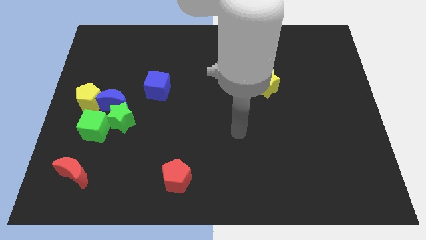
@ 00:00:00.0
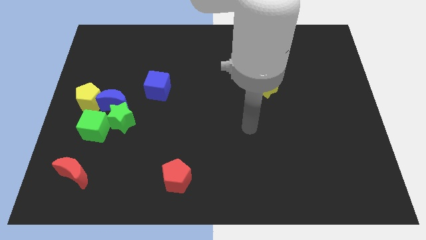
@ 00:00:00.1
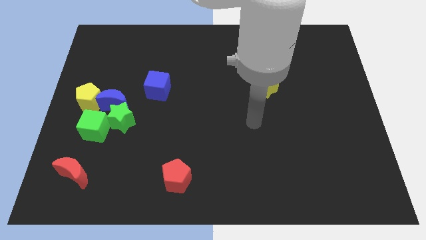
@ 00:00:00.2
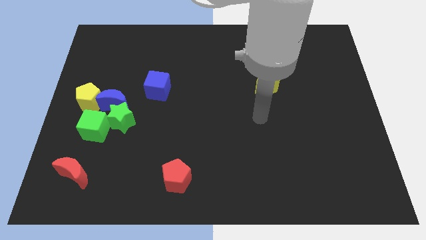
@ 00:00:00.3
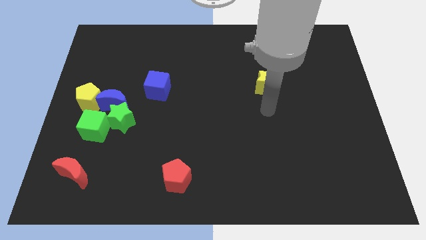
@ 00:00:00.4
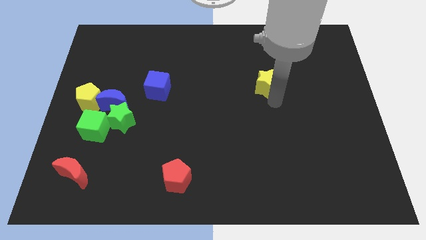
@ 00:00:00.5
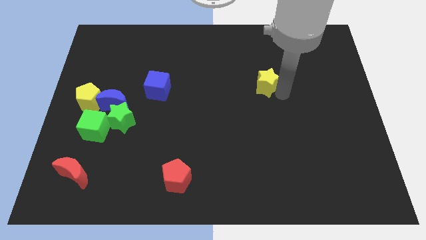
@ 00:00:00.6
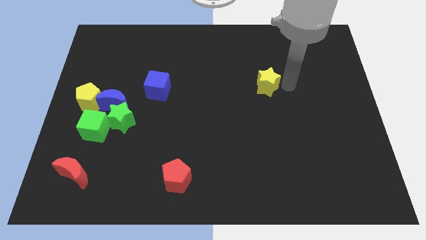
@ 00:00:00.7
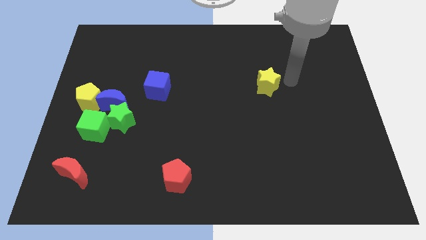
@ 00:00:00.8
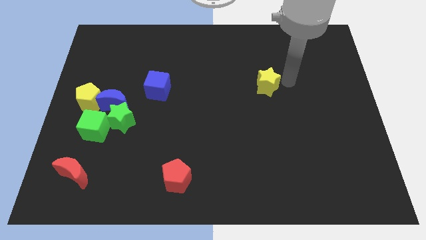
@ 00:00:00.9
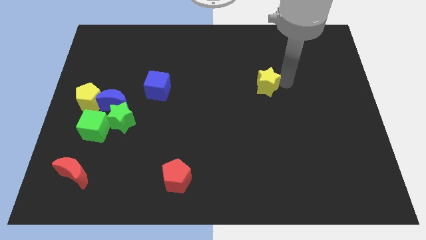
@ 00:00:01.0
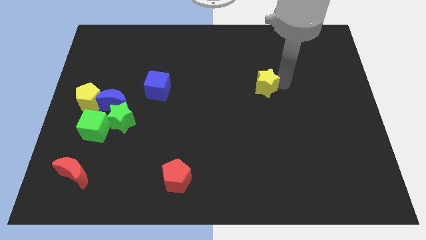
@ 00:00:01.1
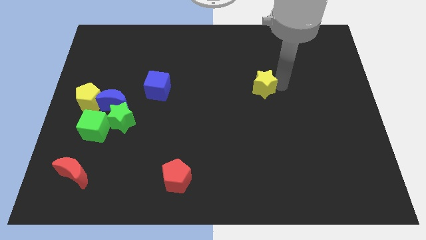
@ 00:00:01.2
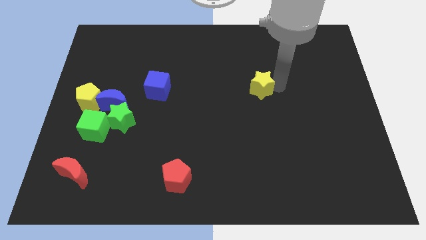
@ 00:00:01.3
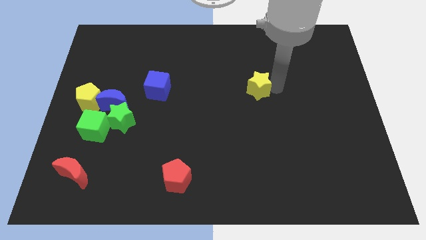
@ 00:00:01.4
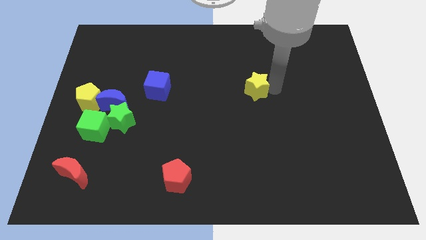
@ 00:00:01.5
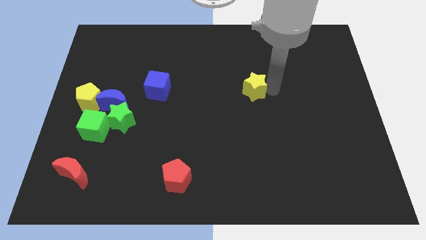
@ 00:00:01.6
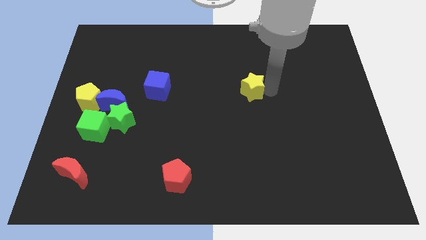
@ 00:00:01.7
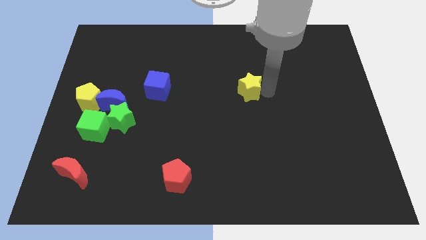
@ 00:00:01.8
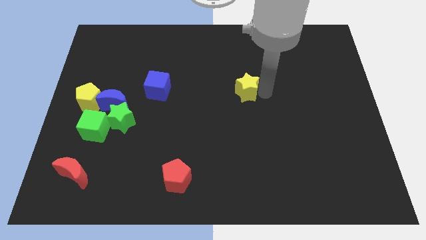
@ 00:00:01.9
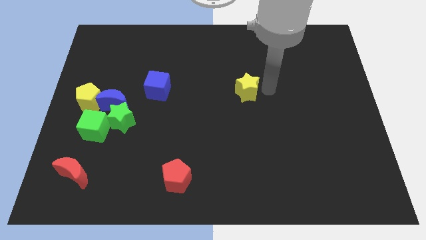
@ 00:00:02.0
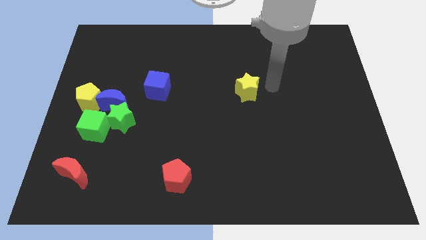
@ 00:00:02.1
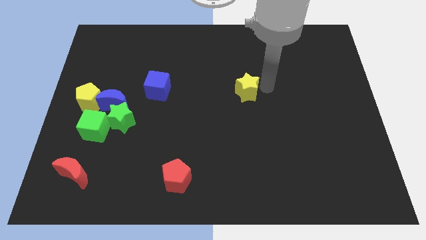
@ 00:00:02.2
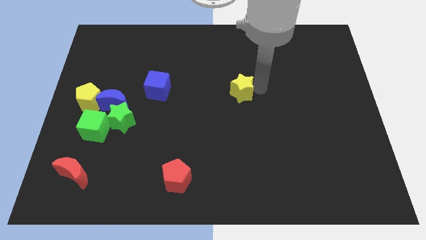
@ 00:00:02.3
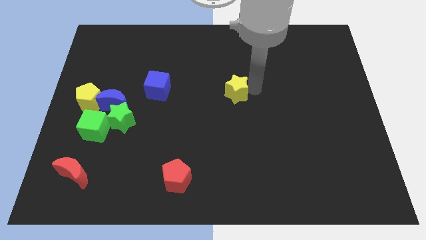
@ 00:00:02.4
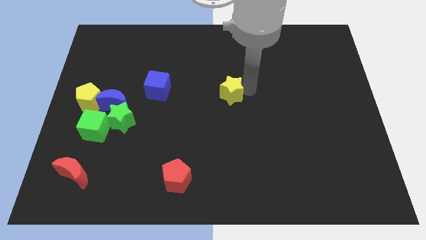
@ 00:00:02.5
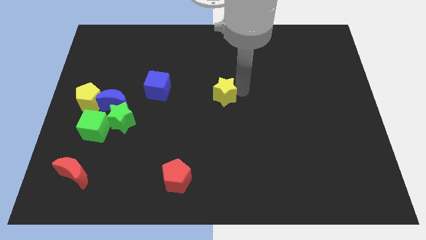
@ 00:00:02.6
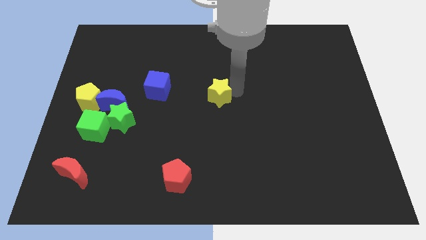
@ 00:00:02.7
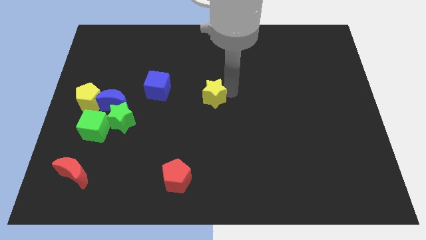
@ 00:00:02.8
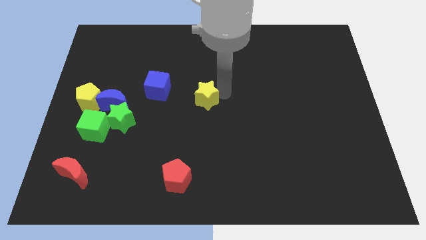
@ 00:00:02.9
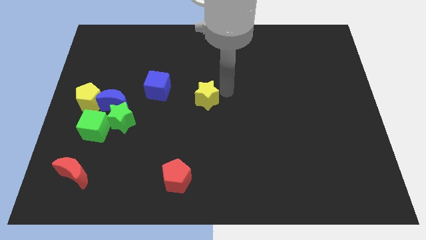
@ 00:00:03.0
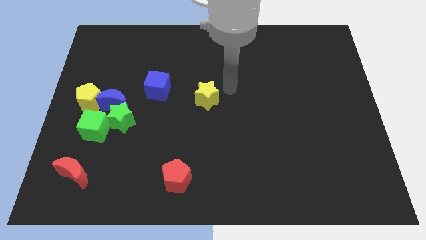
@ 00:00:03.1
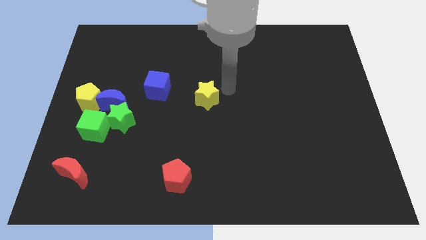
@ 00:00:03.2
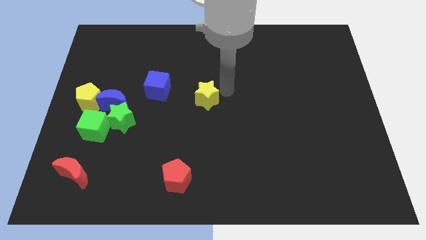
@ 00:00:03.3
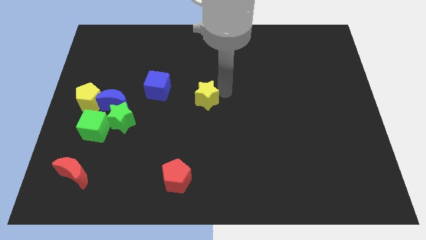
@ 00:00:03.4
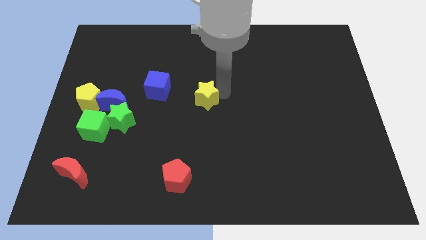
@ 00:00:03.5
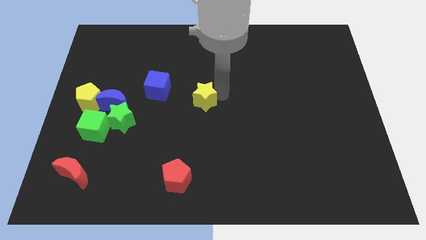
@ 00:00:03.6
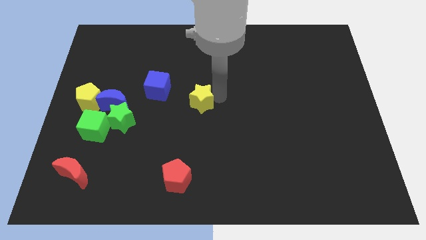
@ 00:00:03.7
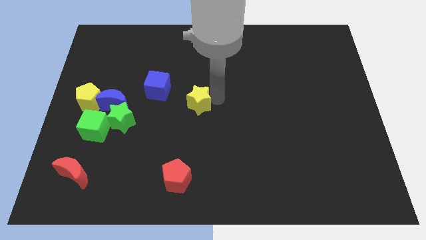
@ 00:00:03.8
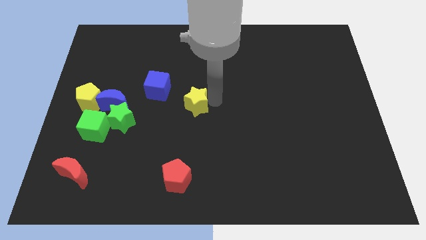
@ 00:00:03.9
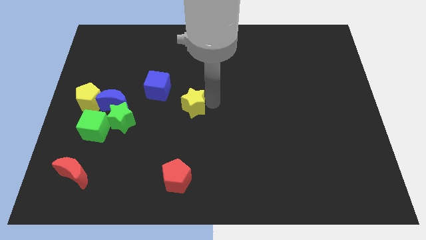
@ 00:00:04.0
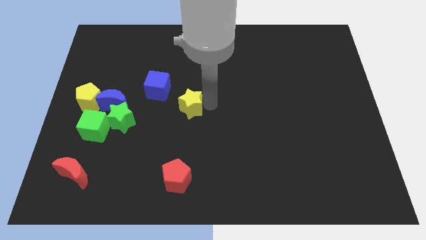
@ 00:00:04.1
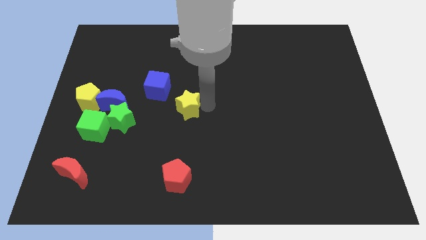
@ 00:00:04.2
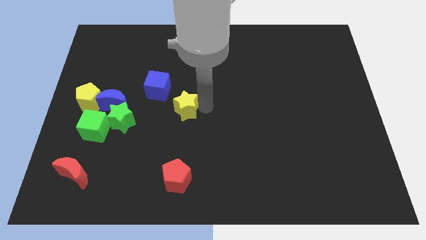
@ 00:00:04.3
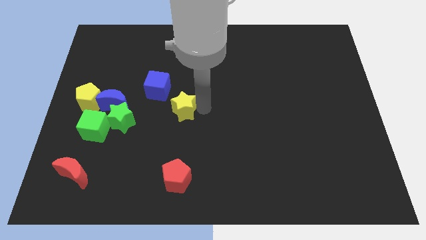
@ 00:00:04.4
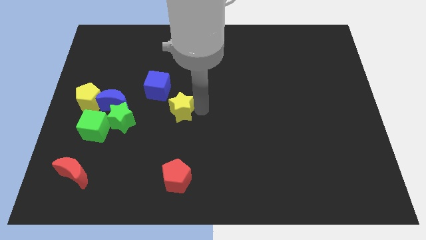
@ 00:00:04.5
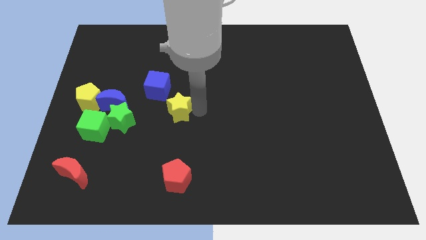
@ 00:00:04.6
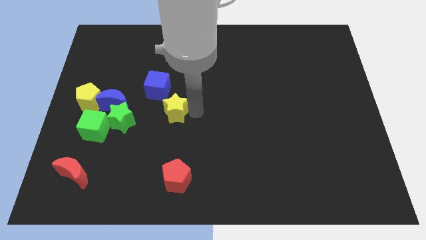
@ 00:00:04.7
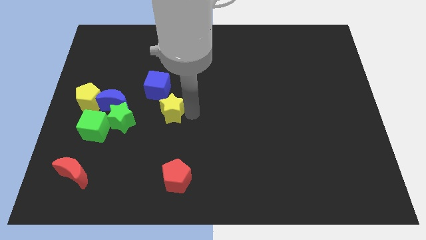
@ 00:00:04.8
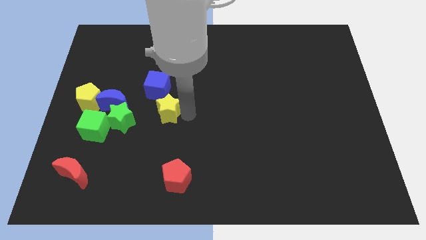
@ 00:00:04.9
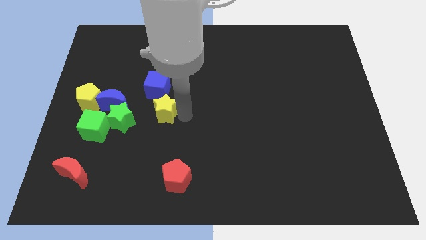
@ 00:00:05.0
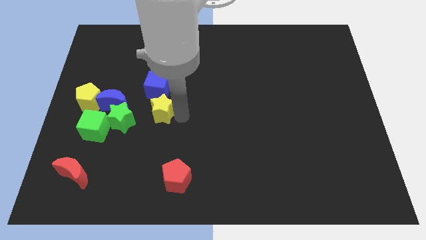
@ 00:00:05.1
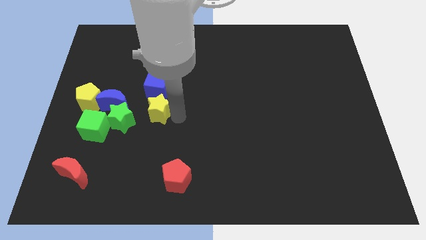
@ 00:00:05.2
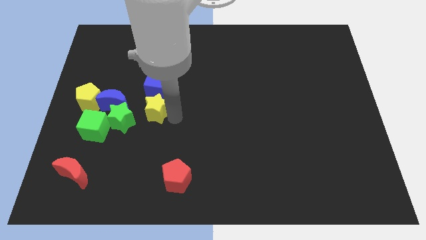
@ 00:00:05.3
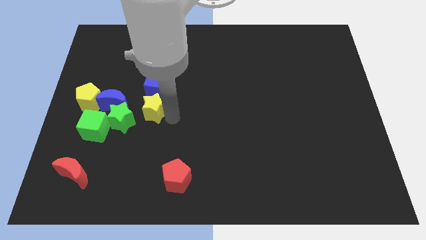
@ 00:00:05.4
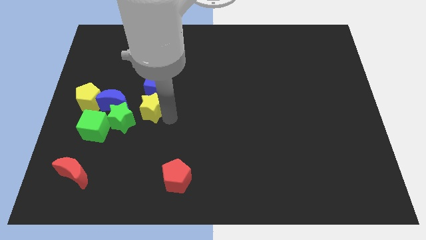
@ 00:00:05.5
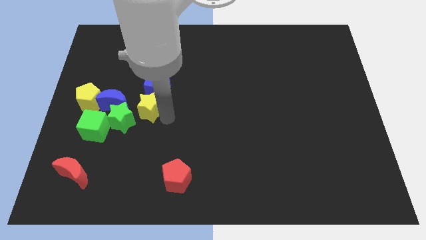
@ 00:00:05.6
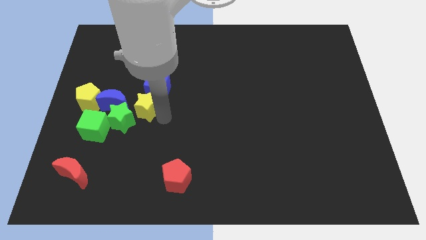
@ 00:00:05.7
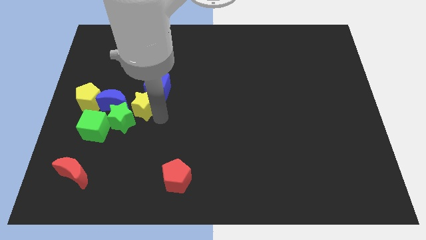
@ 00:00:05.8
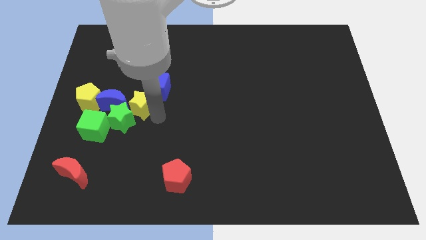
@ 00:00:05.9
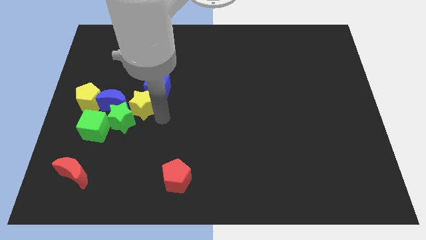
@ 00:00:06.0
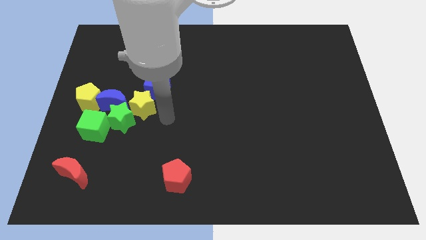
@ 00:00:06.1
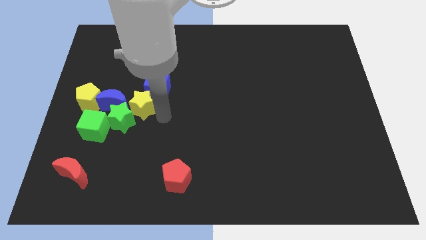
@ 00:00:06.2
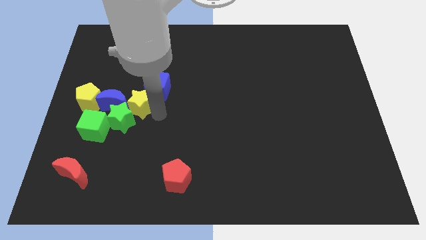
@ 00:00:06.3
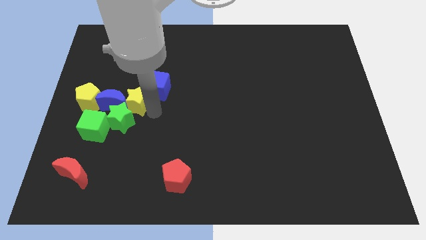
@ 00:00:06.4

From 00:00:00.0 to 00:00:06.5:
move the yellow star next to the blue moon

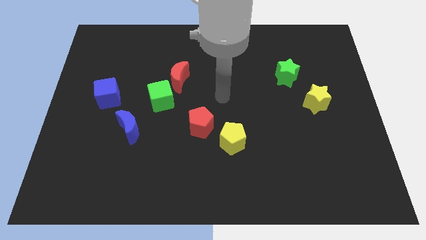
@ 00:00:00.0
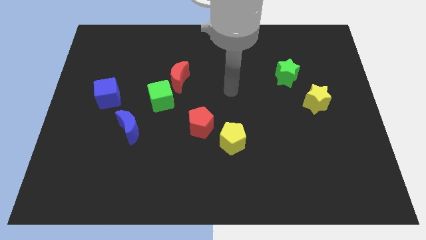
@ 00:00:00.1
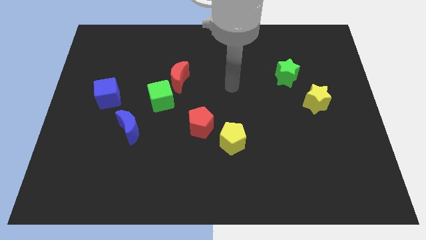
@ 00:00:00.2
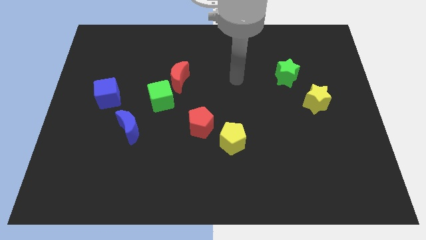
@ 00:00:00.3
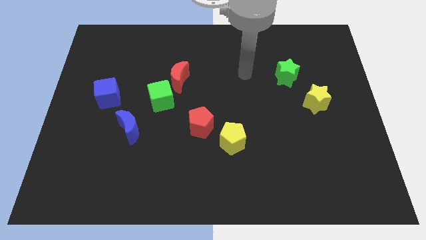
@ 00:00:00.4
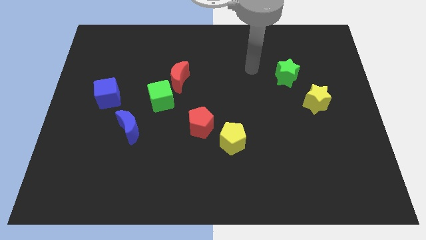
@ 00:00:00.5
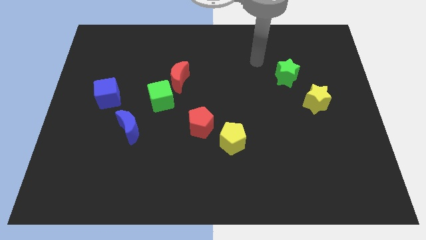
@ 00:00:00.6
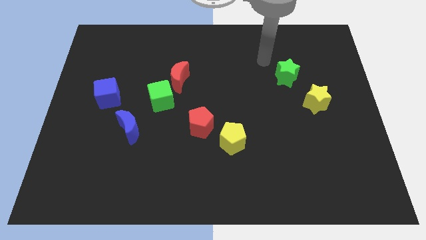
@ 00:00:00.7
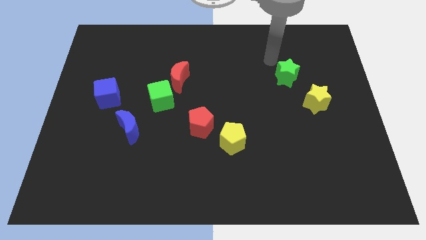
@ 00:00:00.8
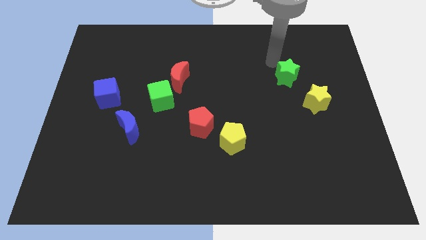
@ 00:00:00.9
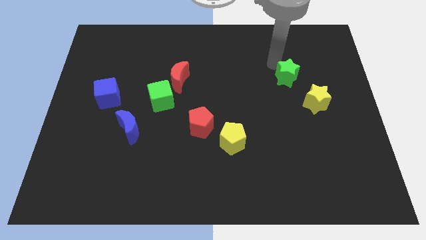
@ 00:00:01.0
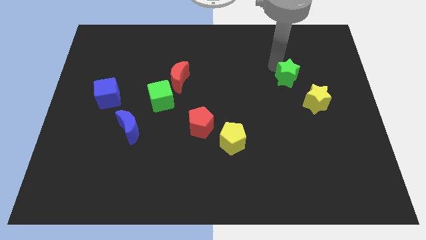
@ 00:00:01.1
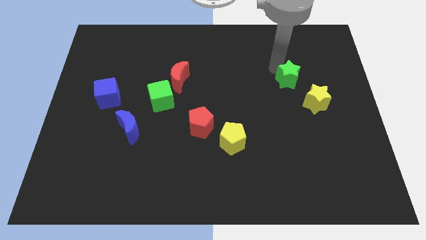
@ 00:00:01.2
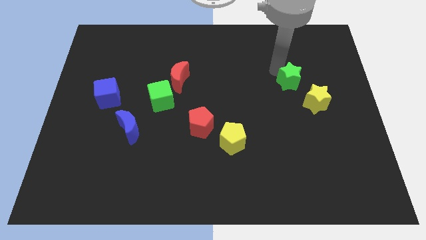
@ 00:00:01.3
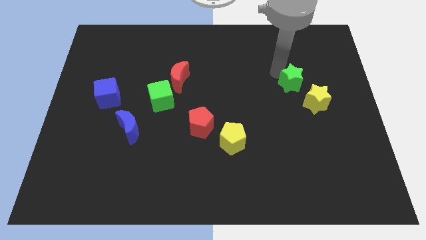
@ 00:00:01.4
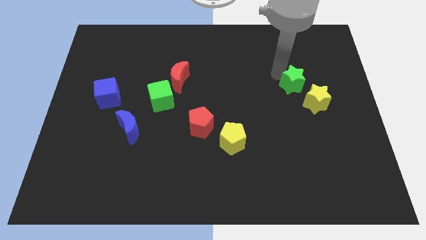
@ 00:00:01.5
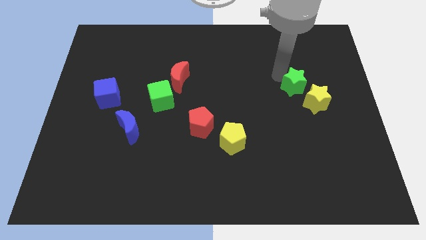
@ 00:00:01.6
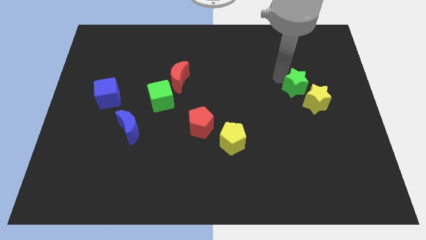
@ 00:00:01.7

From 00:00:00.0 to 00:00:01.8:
slide the green star towards the yellow star
